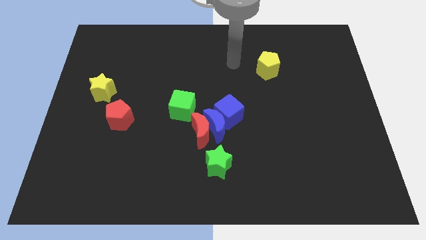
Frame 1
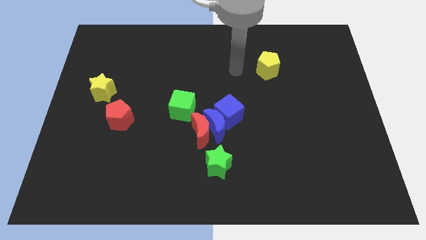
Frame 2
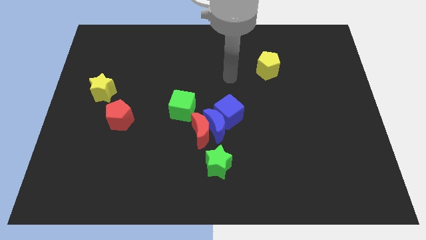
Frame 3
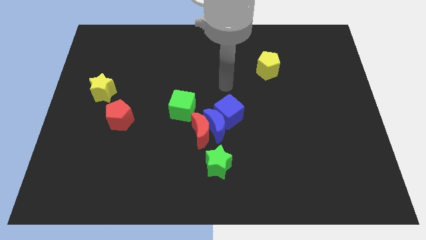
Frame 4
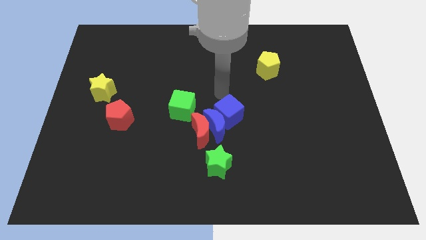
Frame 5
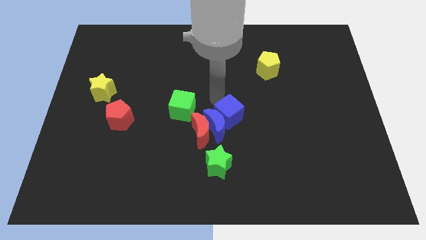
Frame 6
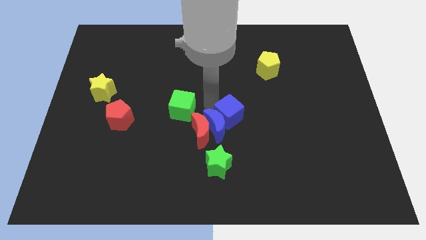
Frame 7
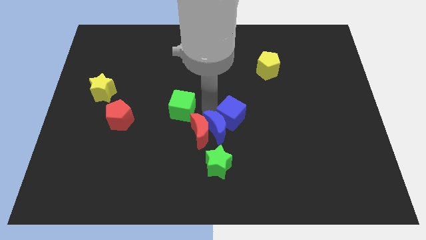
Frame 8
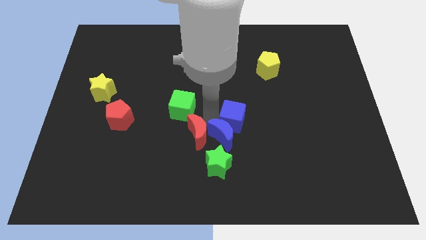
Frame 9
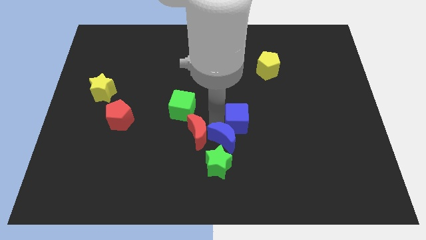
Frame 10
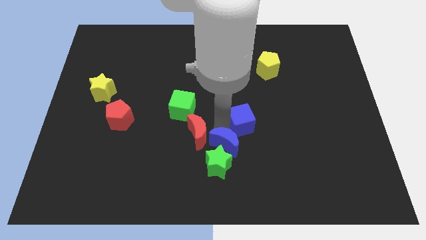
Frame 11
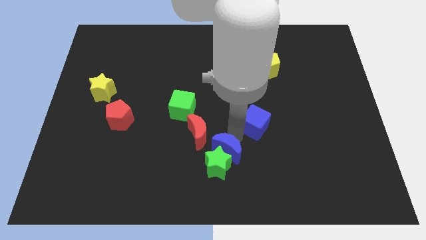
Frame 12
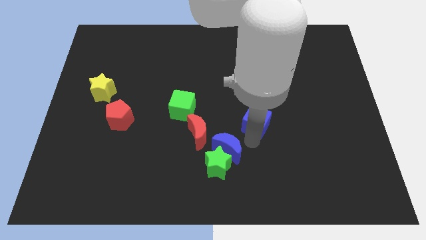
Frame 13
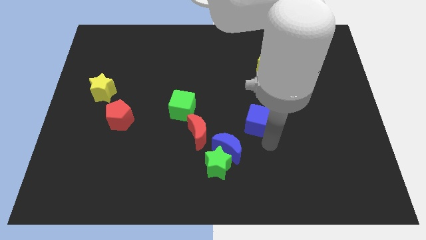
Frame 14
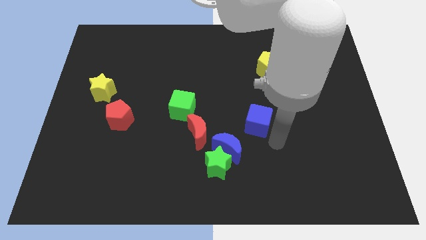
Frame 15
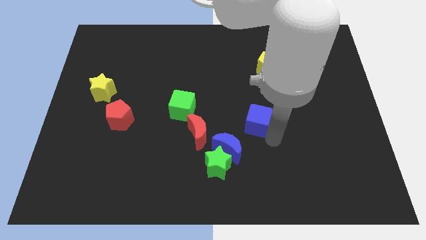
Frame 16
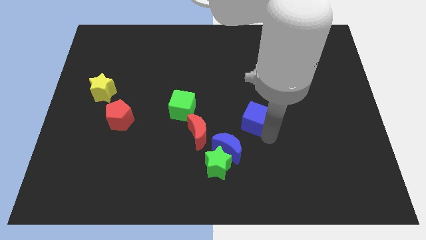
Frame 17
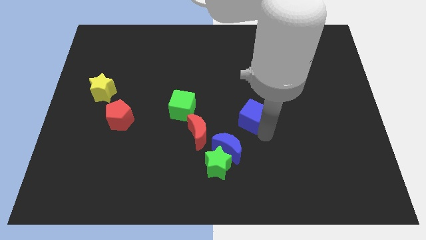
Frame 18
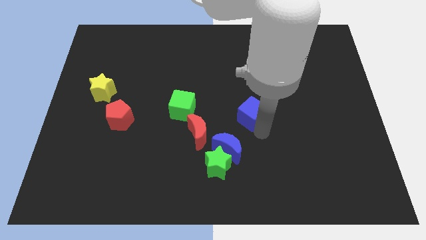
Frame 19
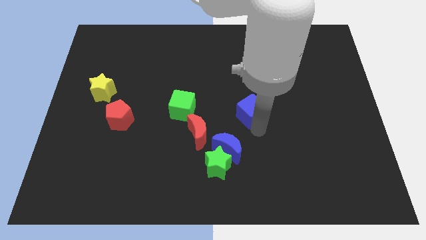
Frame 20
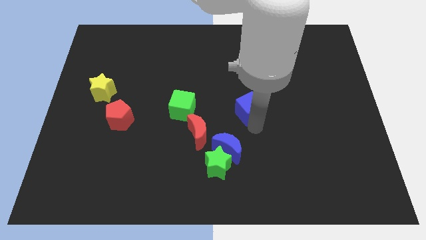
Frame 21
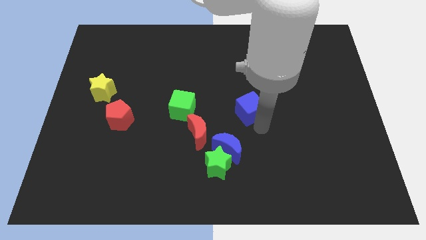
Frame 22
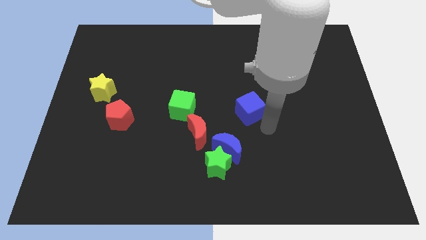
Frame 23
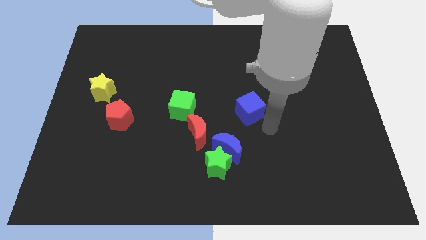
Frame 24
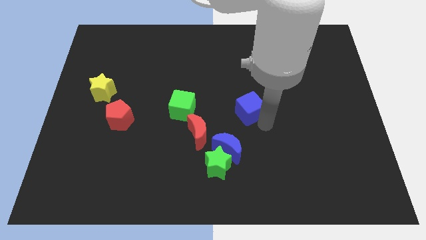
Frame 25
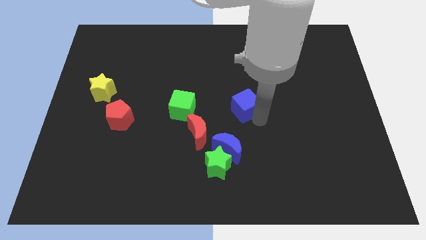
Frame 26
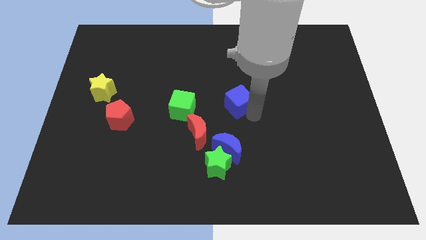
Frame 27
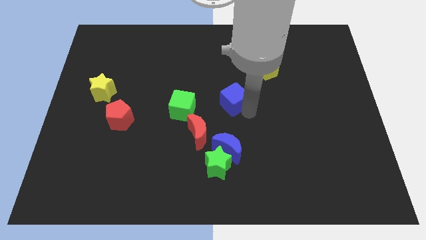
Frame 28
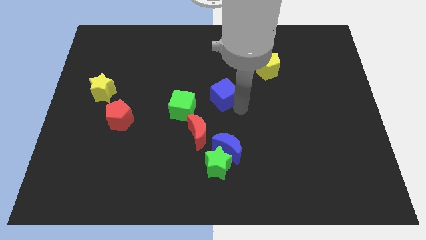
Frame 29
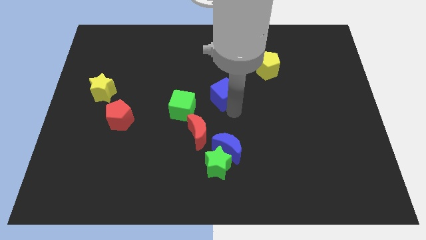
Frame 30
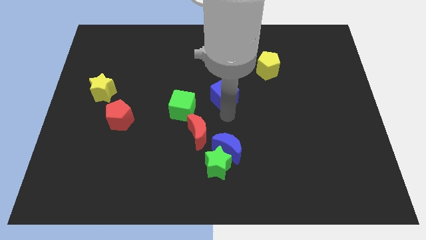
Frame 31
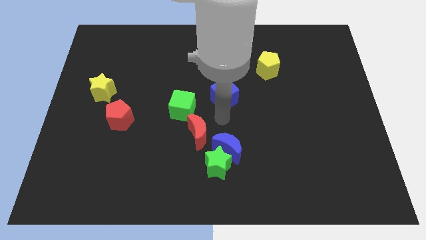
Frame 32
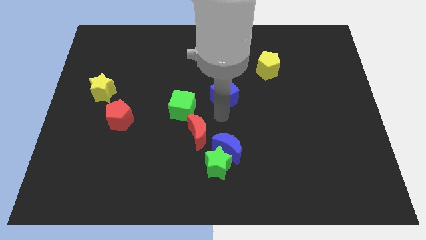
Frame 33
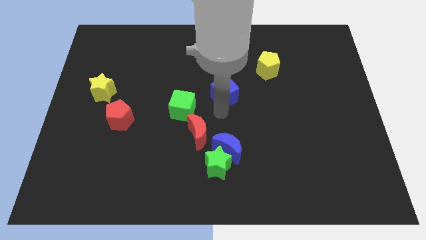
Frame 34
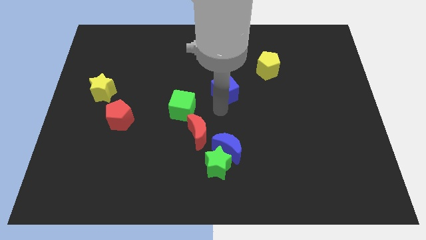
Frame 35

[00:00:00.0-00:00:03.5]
slide the blue cube upwards a little

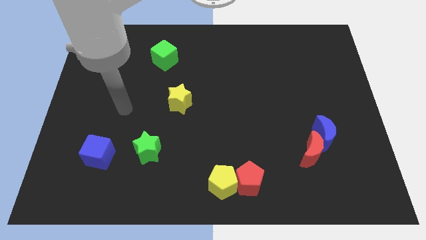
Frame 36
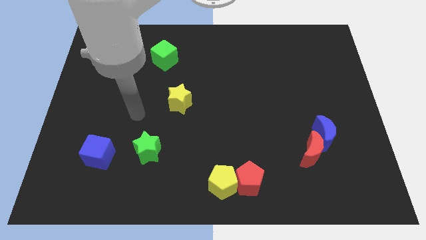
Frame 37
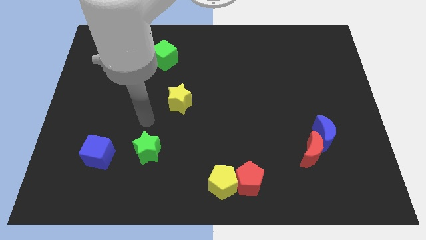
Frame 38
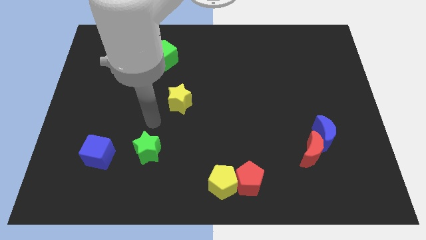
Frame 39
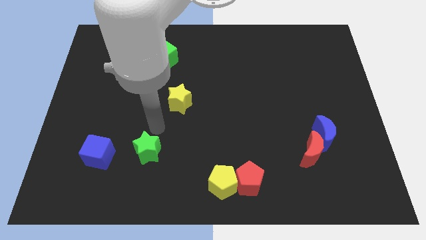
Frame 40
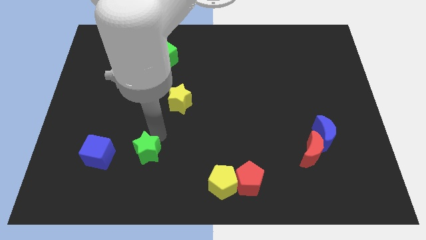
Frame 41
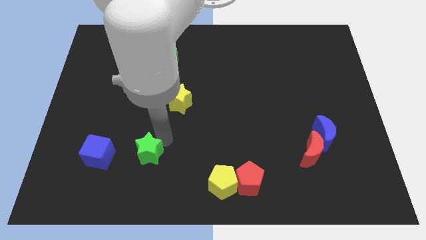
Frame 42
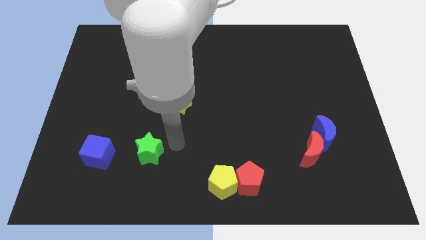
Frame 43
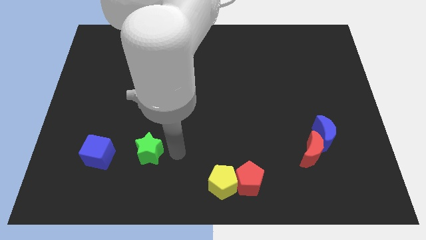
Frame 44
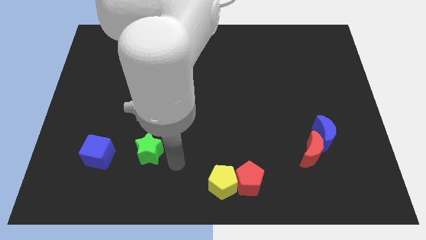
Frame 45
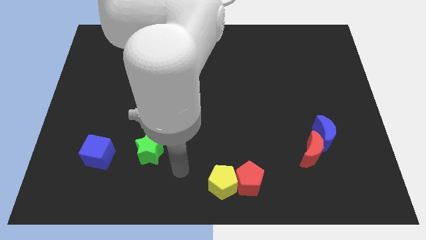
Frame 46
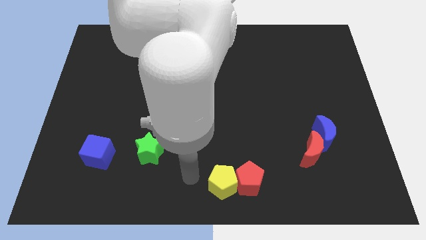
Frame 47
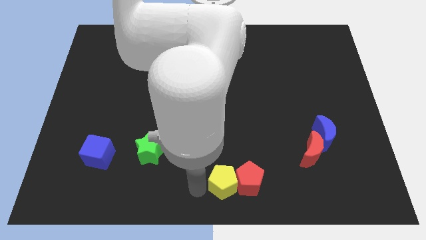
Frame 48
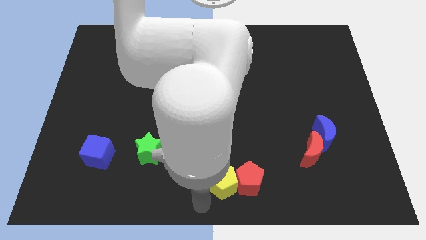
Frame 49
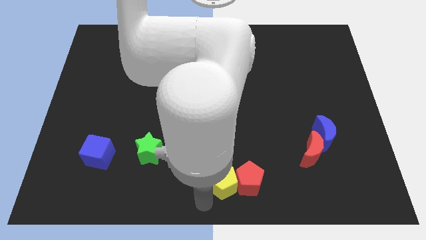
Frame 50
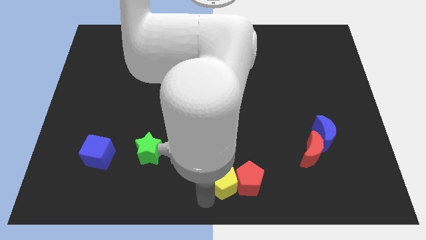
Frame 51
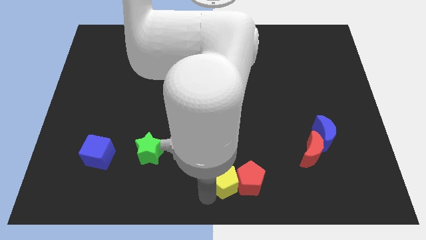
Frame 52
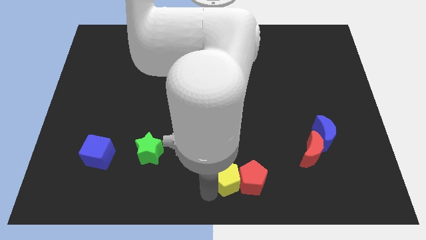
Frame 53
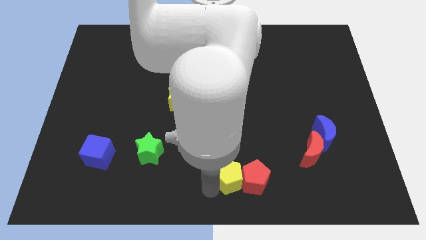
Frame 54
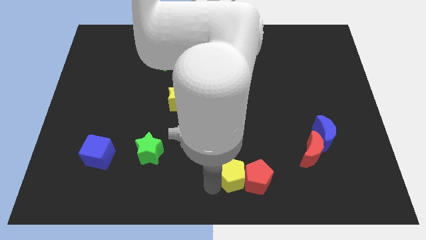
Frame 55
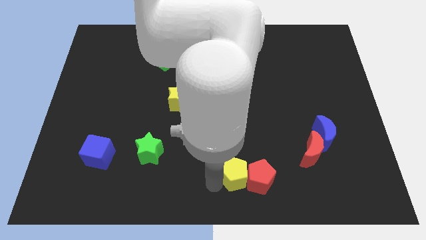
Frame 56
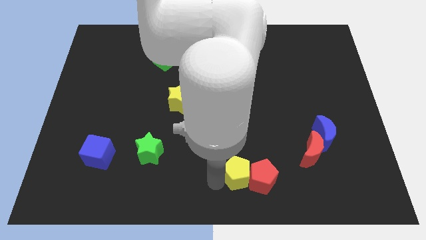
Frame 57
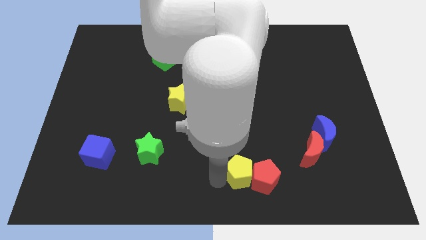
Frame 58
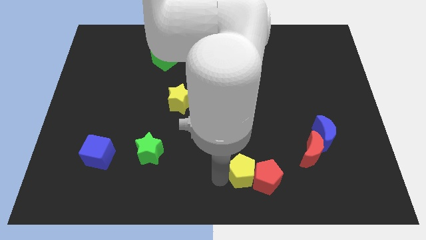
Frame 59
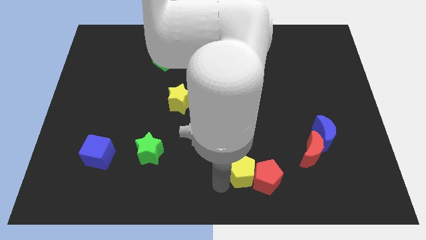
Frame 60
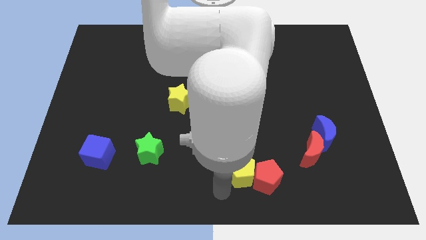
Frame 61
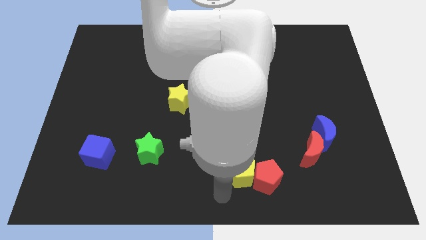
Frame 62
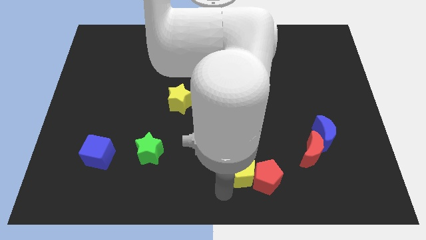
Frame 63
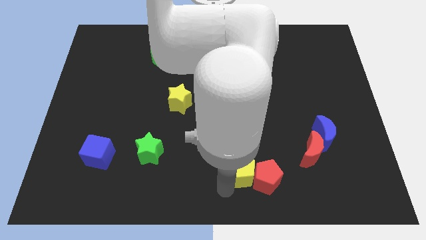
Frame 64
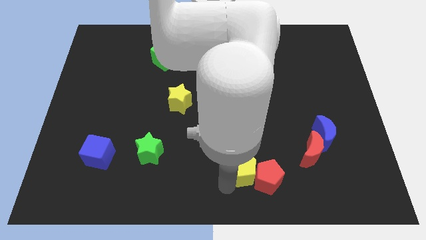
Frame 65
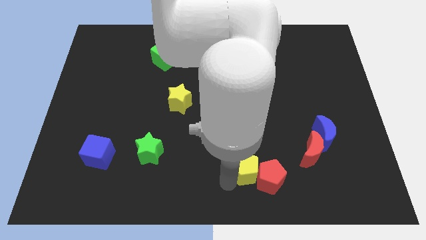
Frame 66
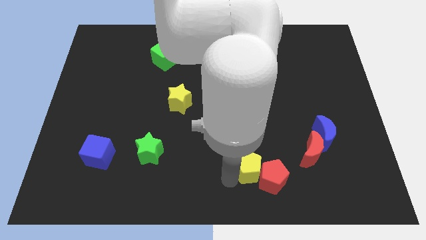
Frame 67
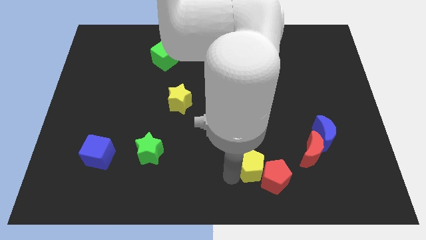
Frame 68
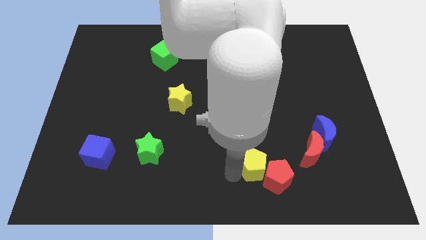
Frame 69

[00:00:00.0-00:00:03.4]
push the yellow pentagon up and then right a little

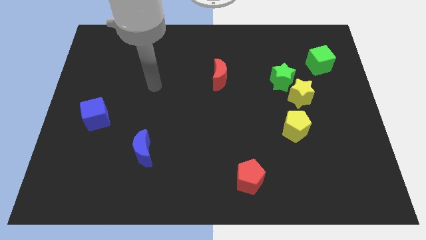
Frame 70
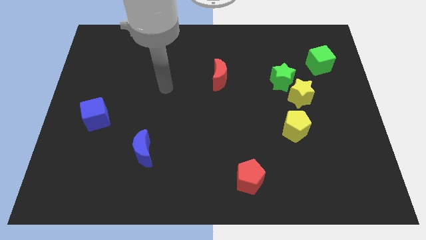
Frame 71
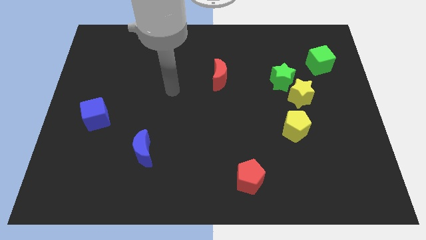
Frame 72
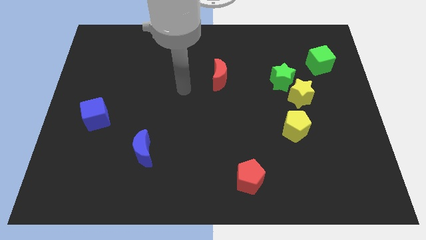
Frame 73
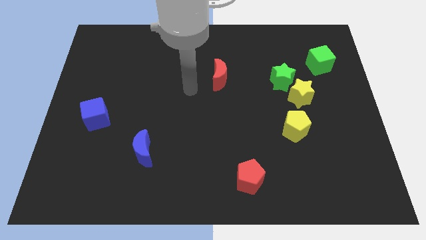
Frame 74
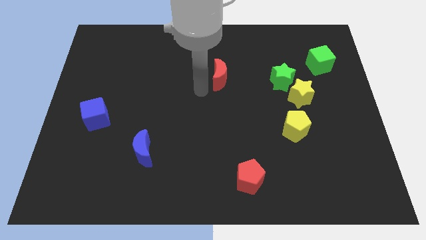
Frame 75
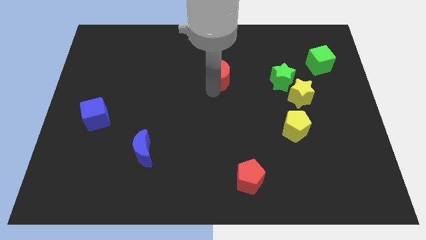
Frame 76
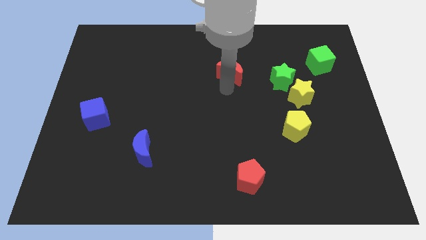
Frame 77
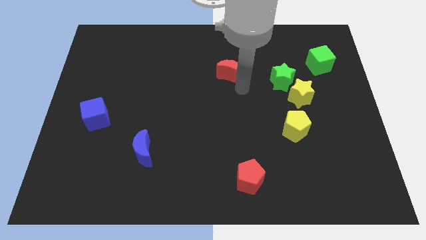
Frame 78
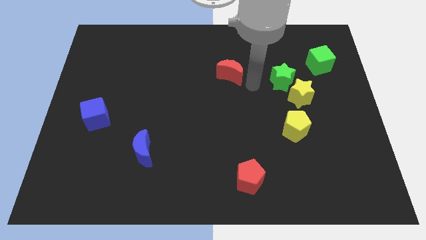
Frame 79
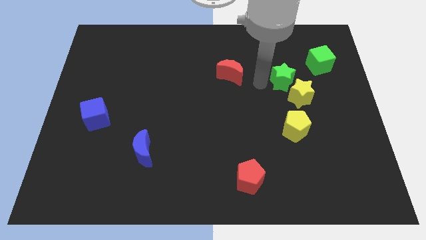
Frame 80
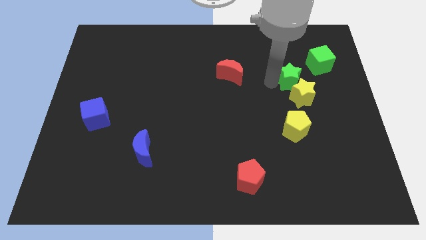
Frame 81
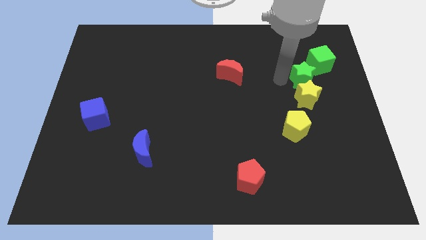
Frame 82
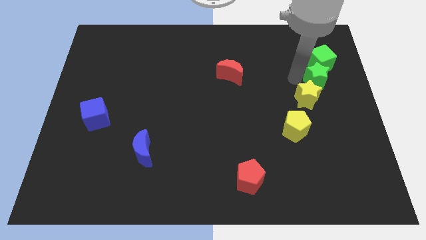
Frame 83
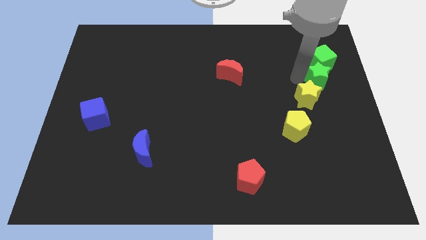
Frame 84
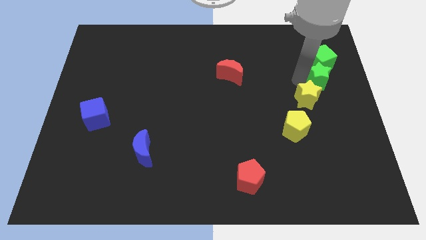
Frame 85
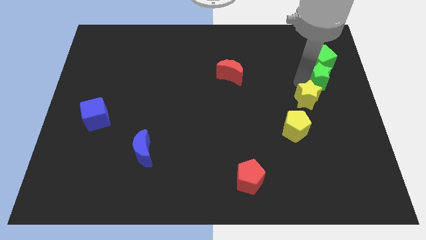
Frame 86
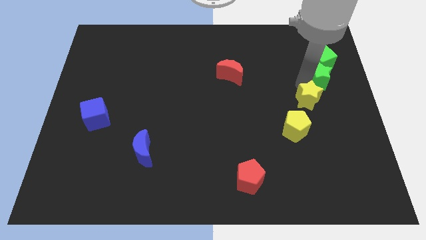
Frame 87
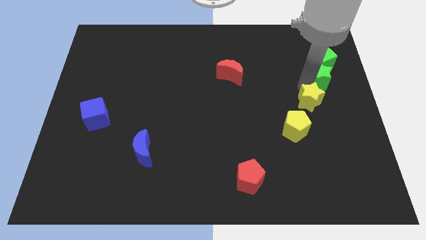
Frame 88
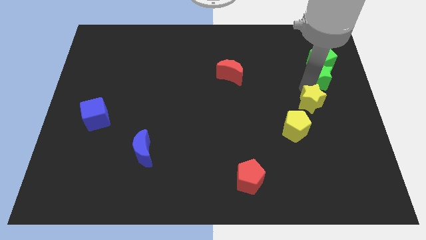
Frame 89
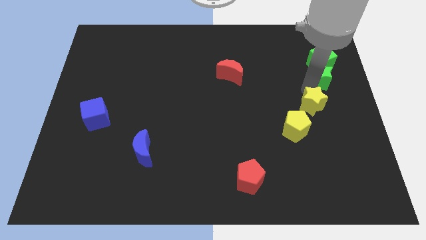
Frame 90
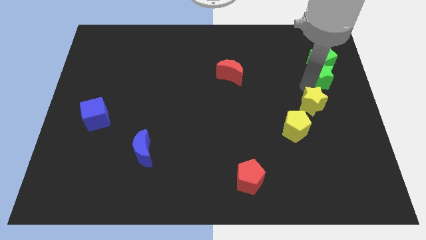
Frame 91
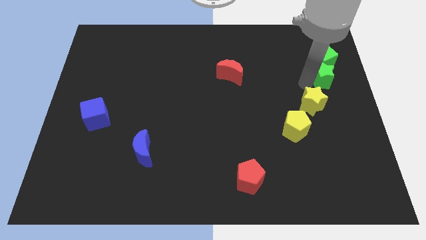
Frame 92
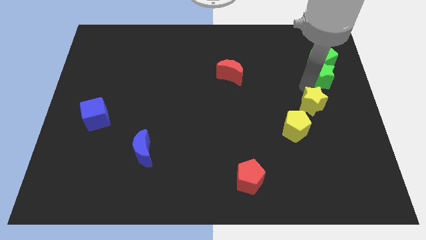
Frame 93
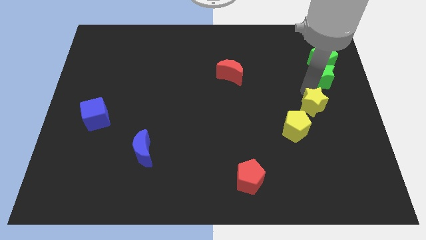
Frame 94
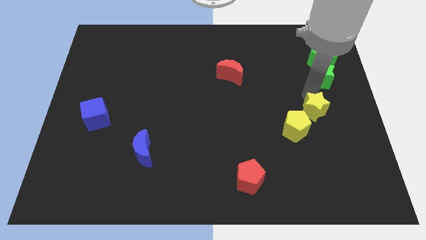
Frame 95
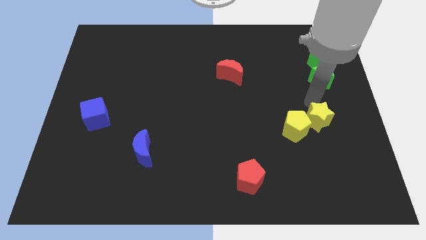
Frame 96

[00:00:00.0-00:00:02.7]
slightly move the yellow star down
